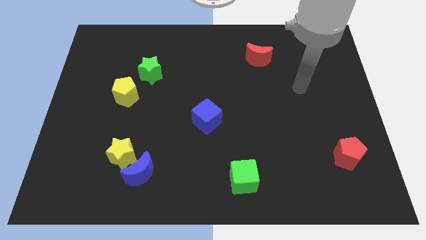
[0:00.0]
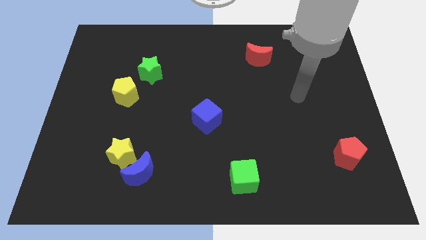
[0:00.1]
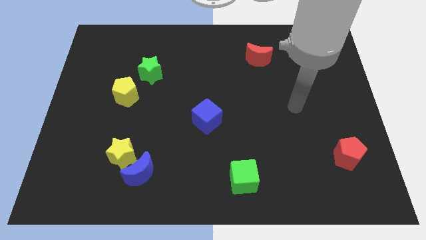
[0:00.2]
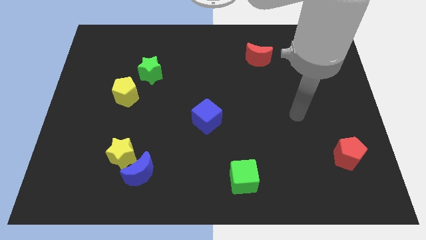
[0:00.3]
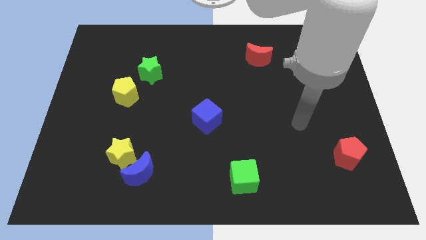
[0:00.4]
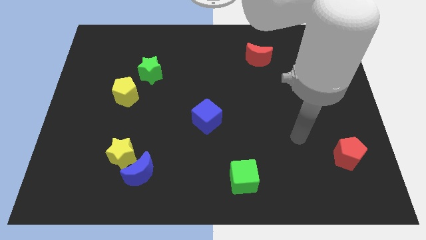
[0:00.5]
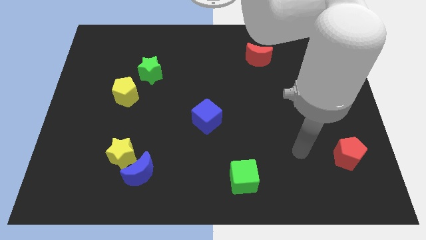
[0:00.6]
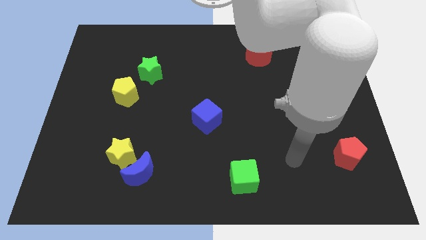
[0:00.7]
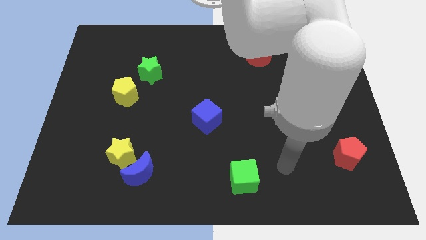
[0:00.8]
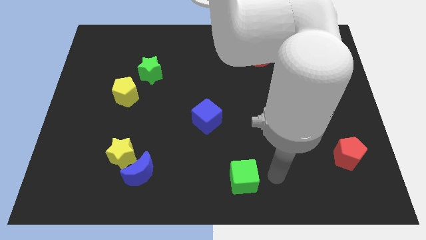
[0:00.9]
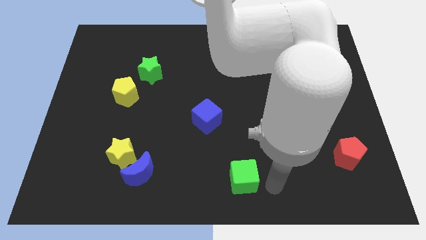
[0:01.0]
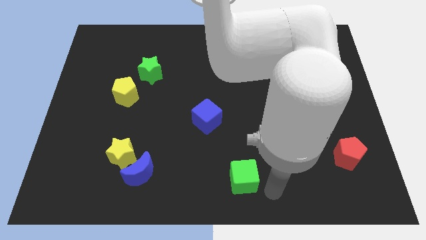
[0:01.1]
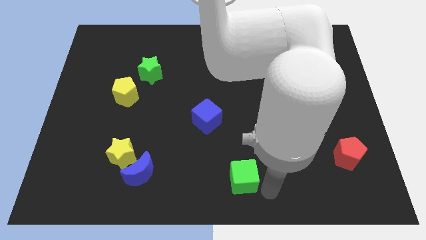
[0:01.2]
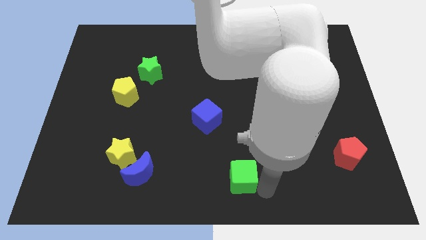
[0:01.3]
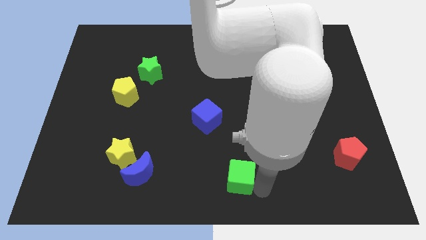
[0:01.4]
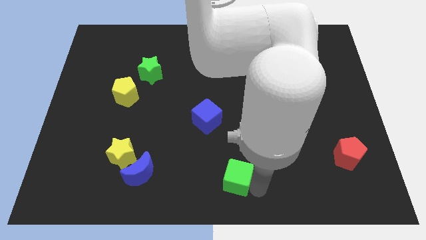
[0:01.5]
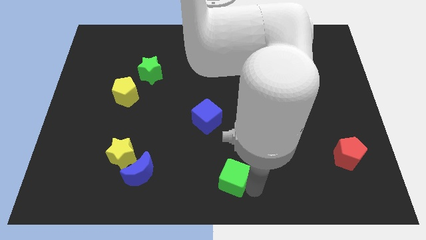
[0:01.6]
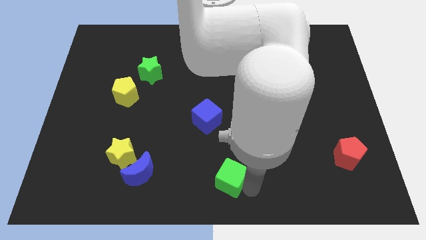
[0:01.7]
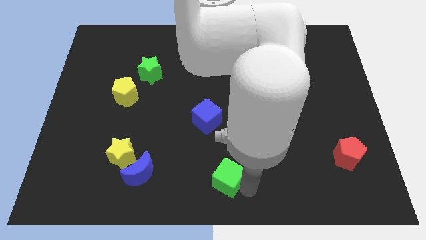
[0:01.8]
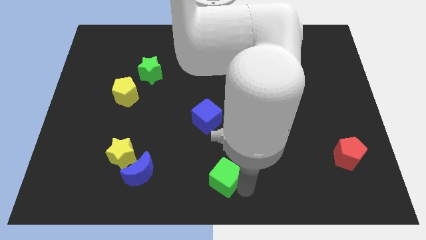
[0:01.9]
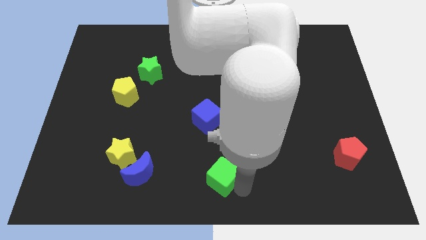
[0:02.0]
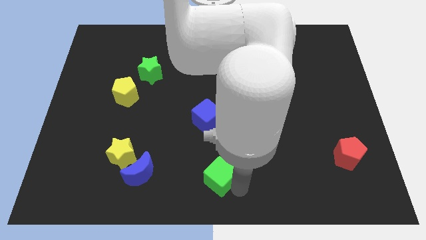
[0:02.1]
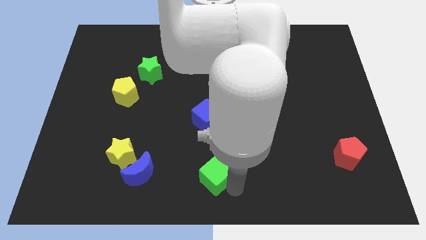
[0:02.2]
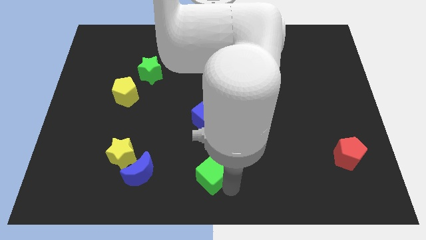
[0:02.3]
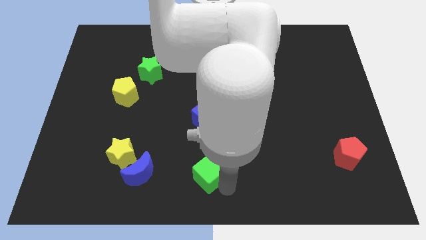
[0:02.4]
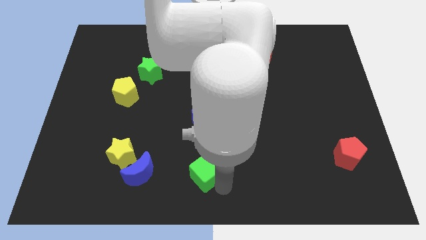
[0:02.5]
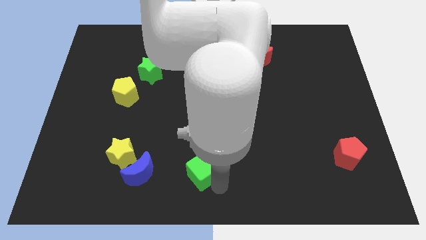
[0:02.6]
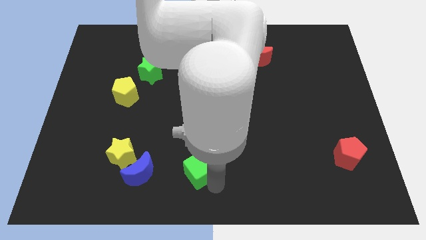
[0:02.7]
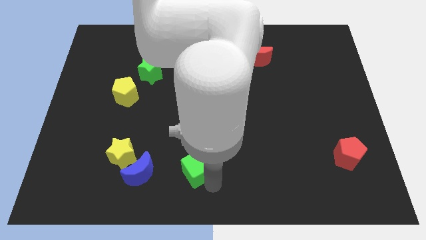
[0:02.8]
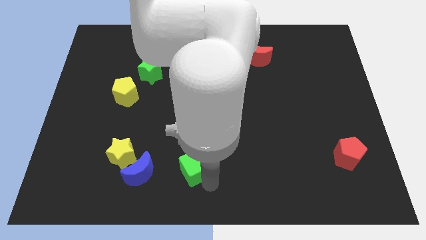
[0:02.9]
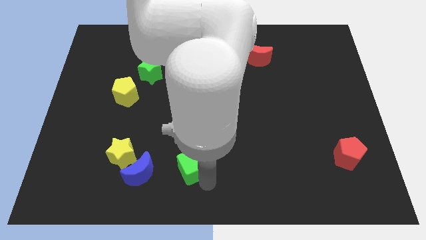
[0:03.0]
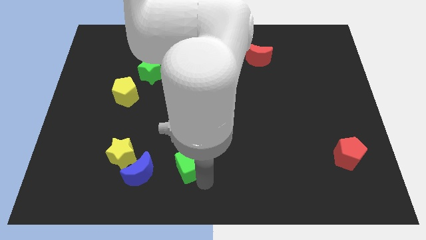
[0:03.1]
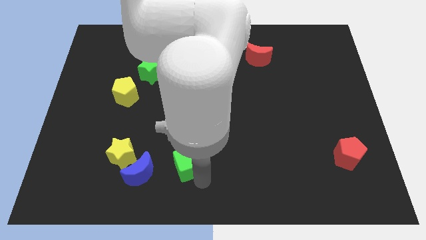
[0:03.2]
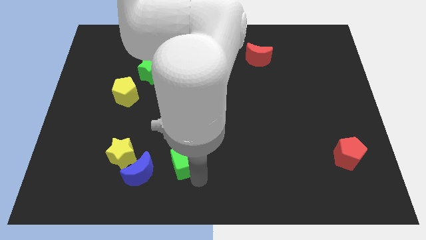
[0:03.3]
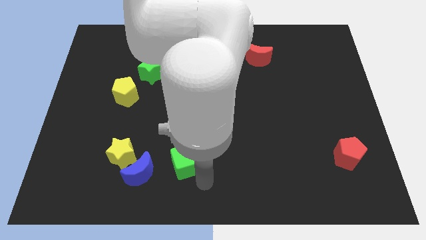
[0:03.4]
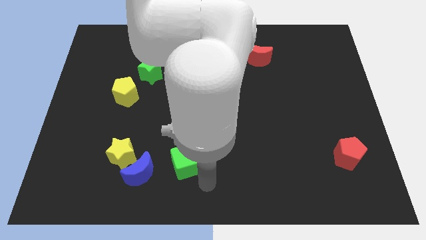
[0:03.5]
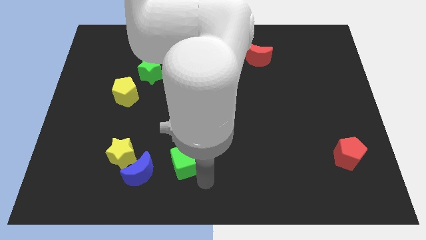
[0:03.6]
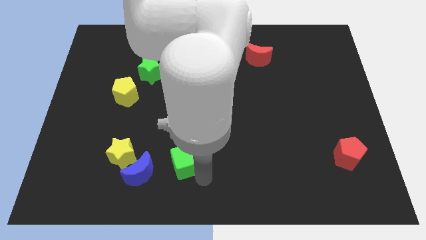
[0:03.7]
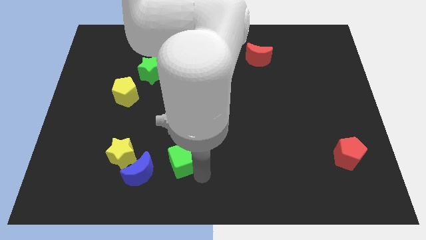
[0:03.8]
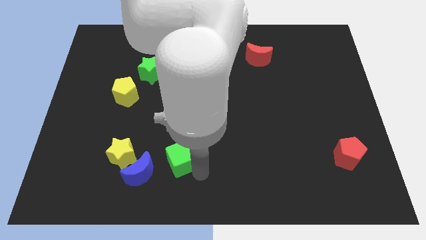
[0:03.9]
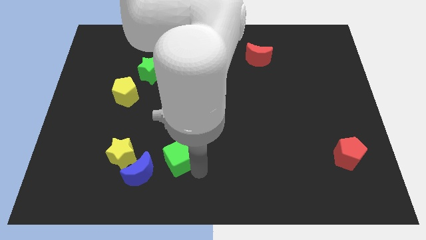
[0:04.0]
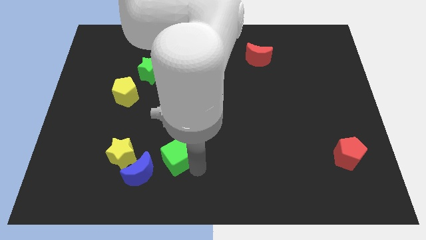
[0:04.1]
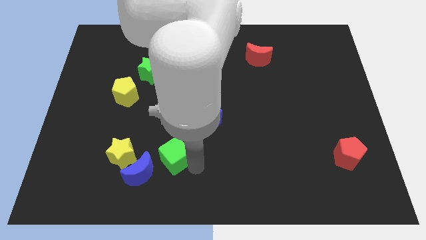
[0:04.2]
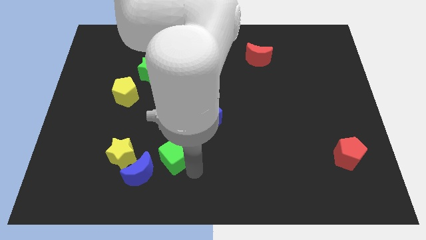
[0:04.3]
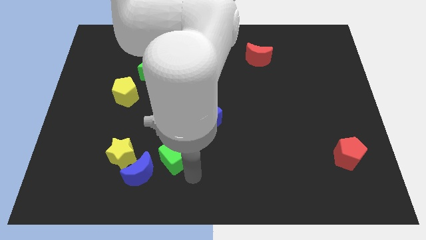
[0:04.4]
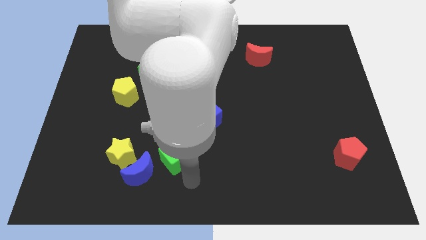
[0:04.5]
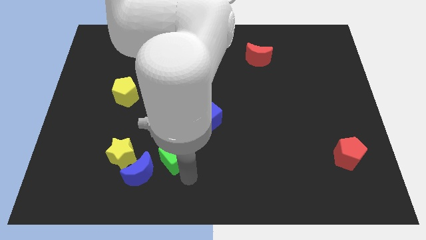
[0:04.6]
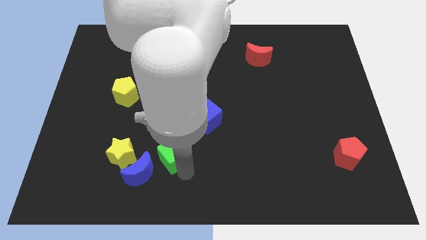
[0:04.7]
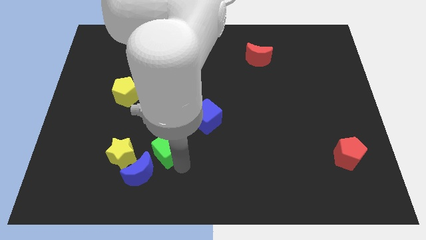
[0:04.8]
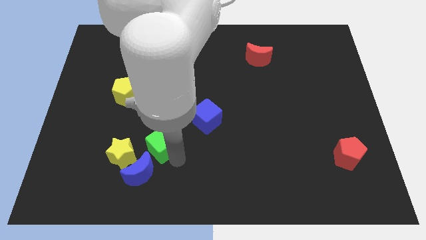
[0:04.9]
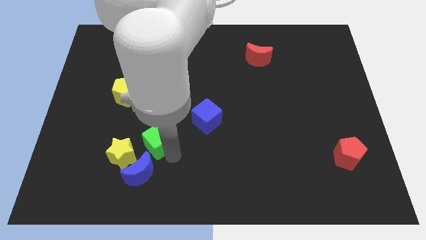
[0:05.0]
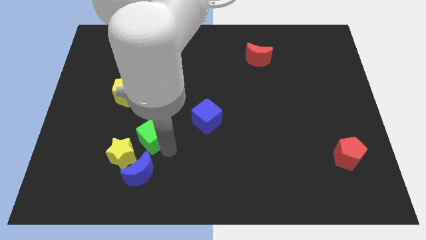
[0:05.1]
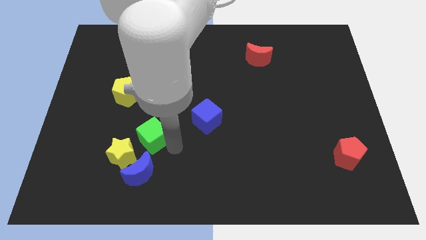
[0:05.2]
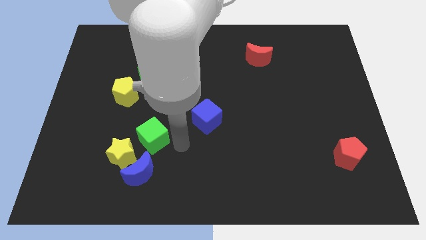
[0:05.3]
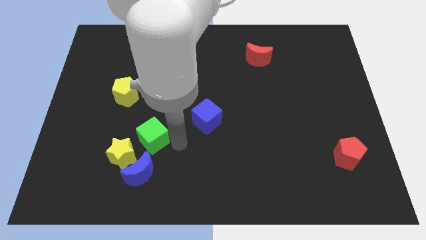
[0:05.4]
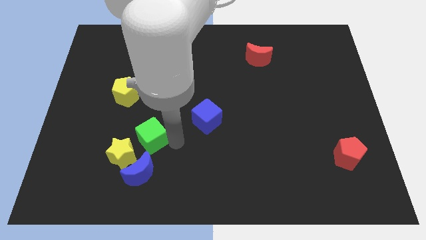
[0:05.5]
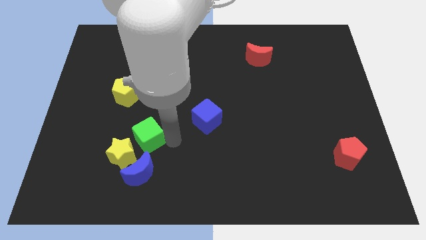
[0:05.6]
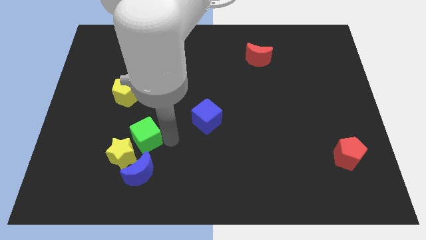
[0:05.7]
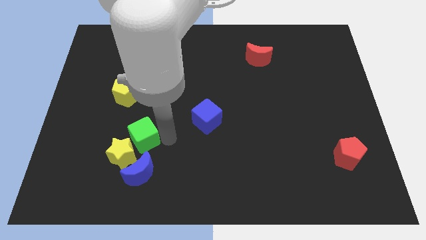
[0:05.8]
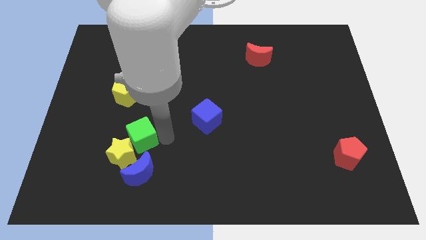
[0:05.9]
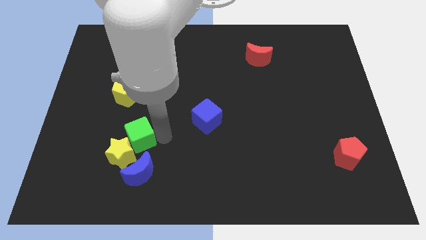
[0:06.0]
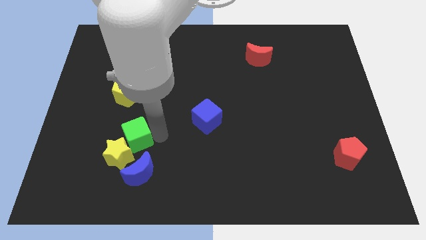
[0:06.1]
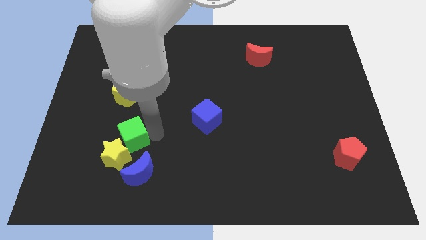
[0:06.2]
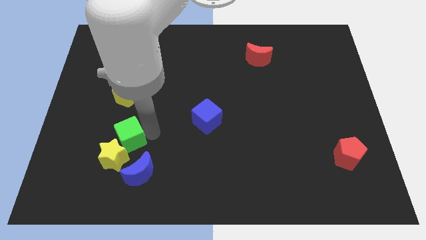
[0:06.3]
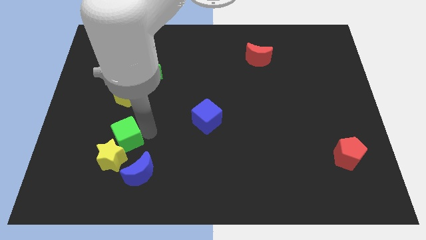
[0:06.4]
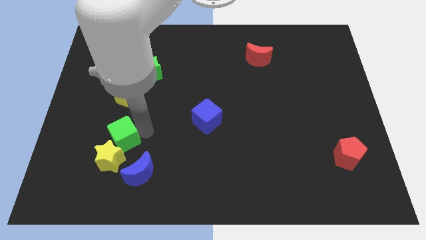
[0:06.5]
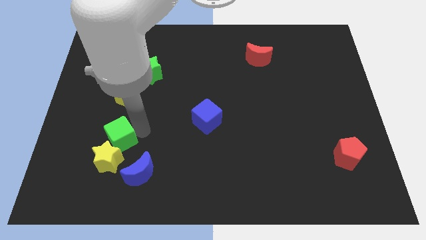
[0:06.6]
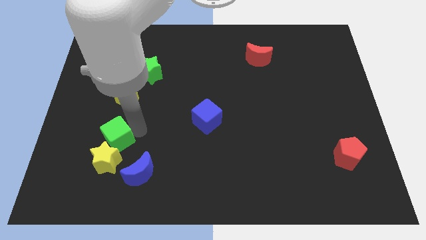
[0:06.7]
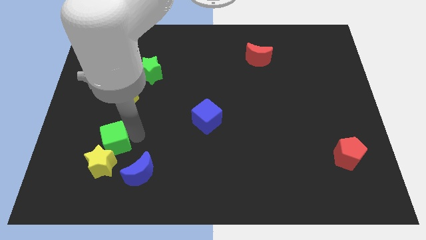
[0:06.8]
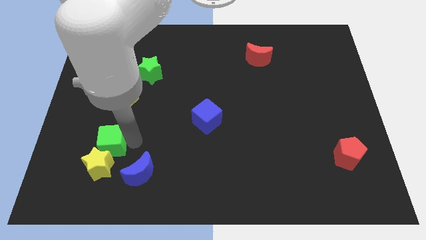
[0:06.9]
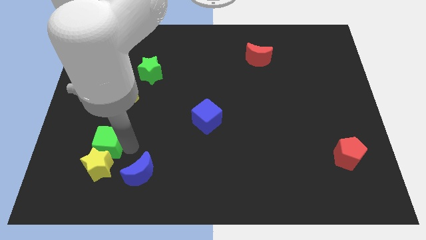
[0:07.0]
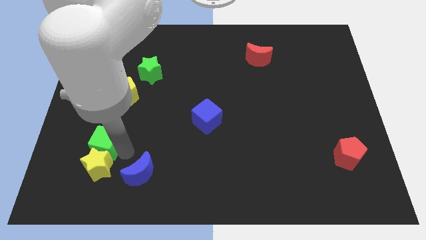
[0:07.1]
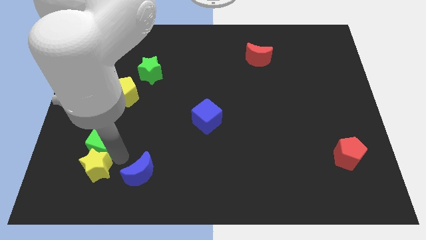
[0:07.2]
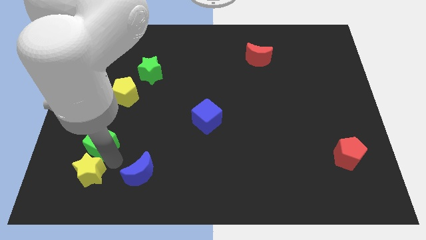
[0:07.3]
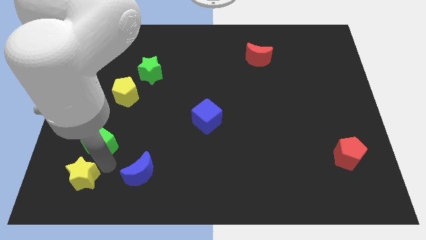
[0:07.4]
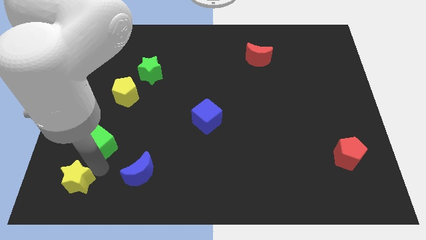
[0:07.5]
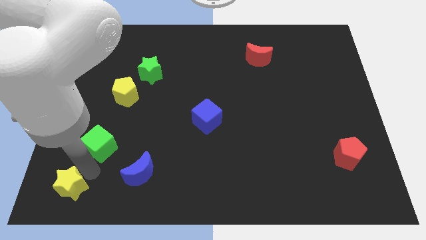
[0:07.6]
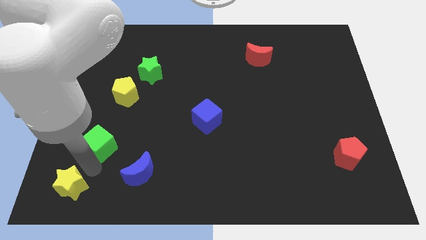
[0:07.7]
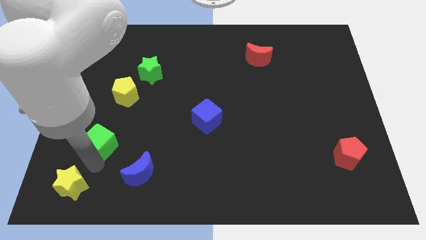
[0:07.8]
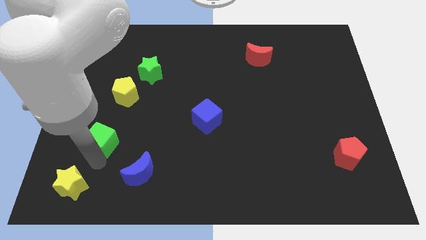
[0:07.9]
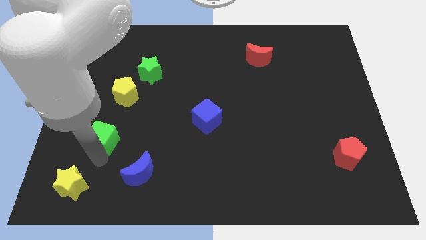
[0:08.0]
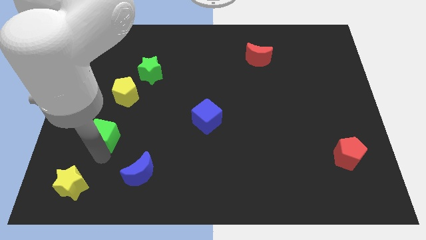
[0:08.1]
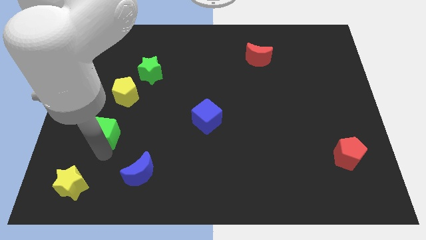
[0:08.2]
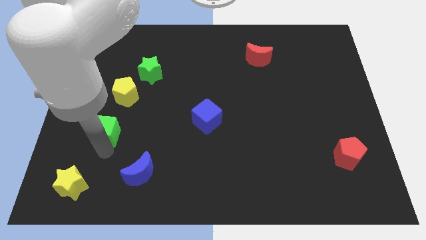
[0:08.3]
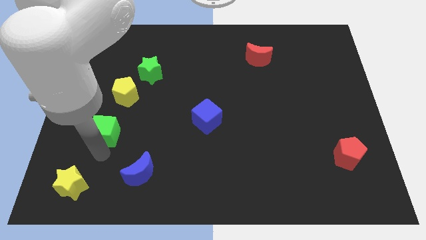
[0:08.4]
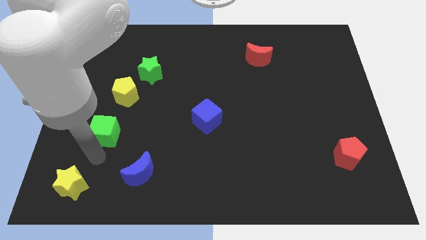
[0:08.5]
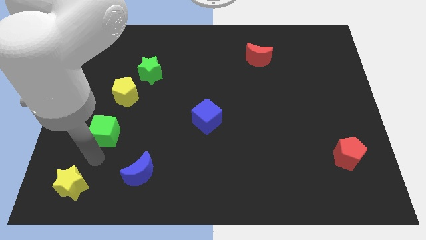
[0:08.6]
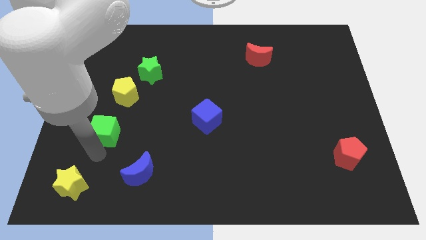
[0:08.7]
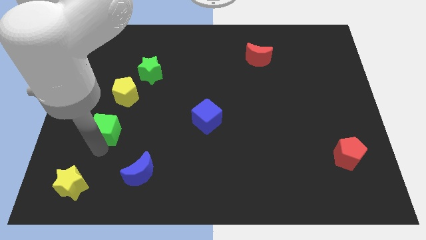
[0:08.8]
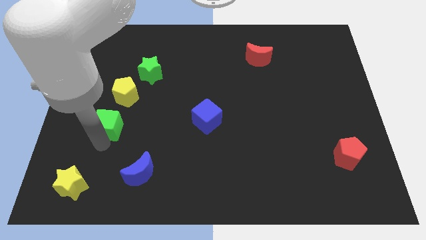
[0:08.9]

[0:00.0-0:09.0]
push the green cube diagonally down and to the left of the yellow pentagon
